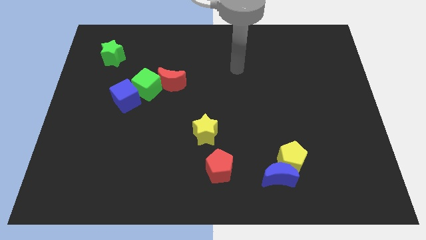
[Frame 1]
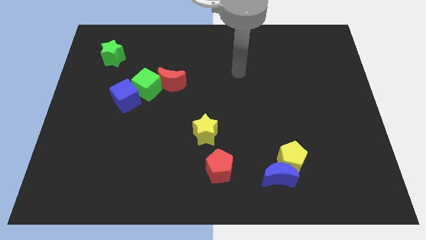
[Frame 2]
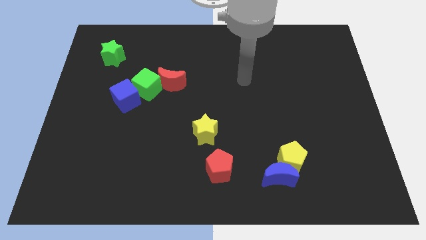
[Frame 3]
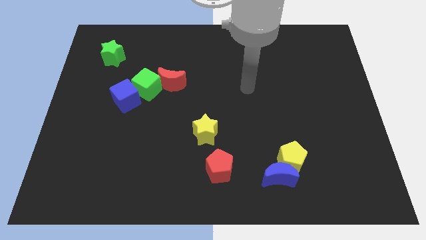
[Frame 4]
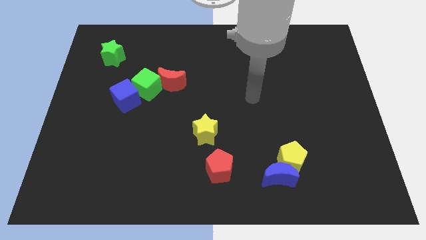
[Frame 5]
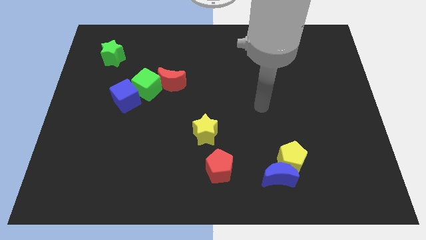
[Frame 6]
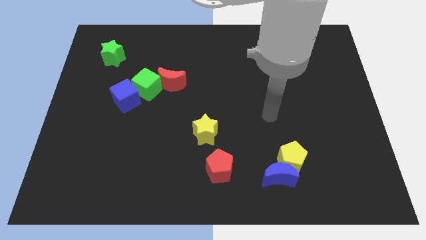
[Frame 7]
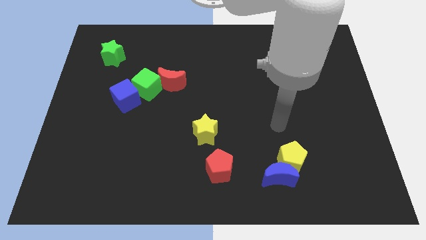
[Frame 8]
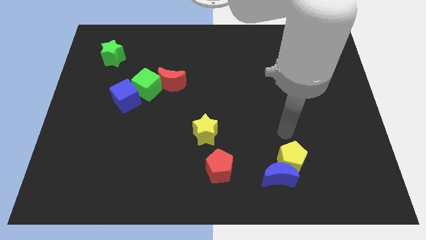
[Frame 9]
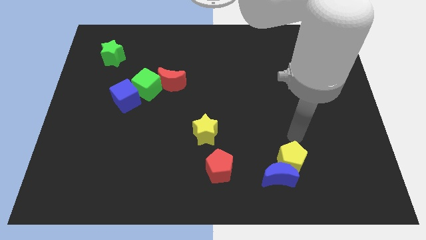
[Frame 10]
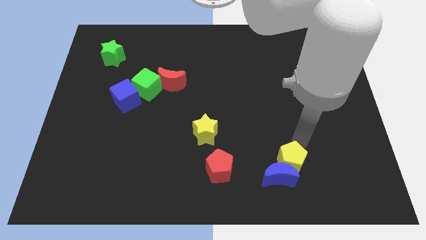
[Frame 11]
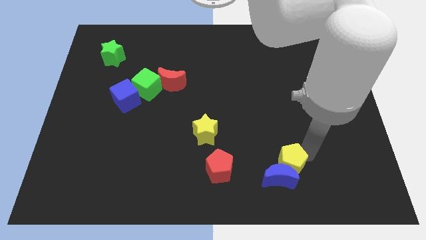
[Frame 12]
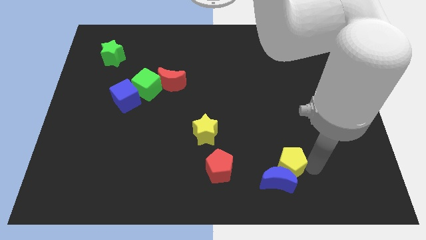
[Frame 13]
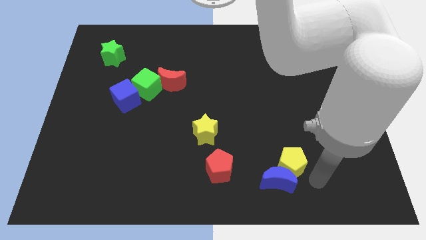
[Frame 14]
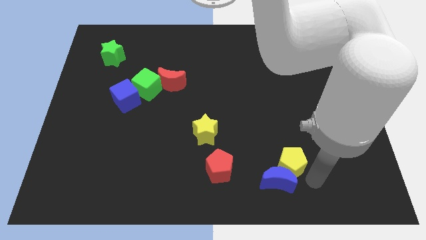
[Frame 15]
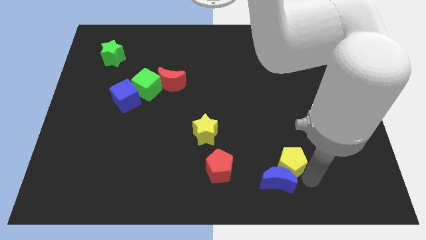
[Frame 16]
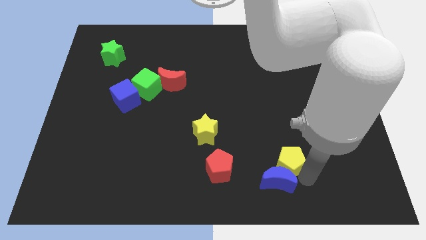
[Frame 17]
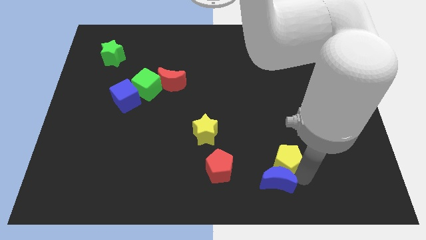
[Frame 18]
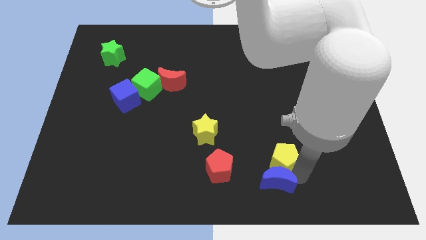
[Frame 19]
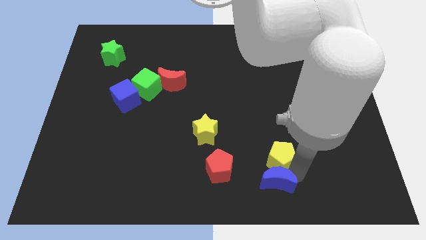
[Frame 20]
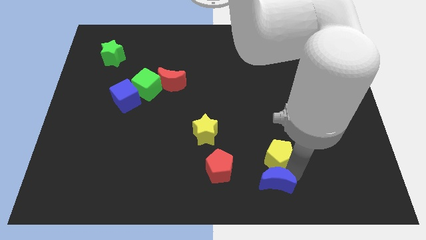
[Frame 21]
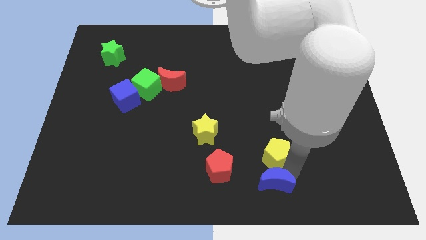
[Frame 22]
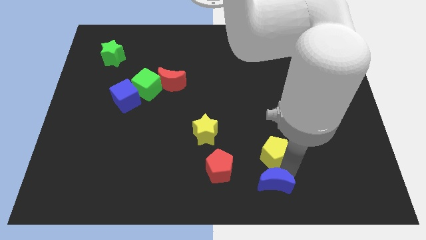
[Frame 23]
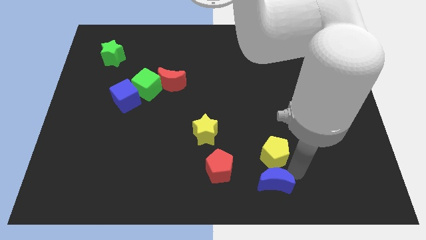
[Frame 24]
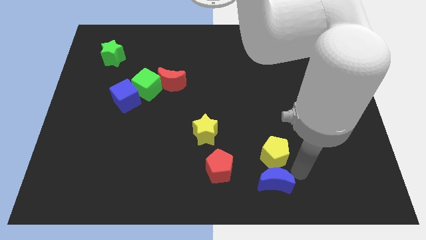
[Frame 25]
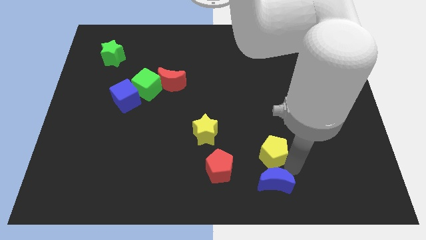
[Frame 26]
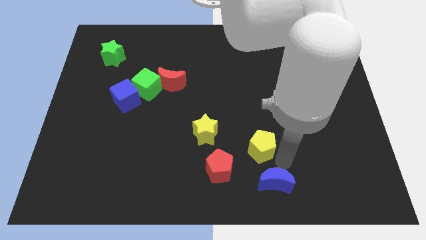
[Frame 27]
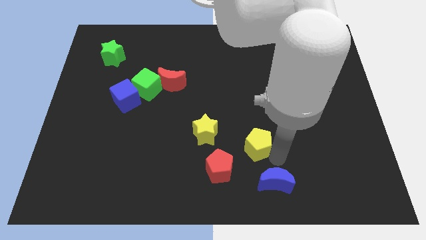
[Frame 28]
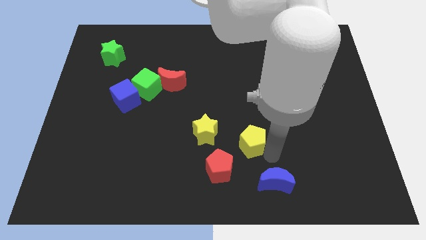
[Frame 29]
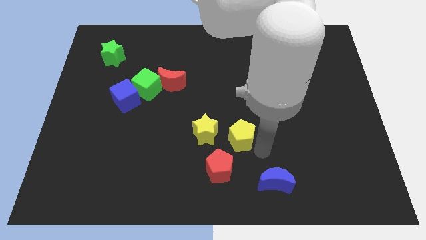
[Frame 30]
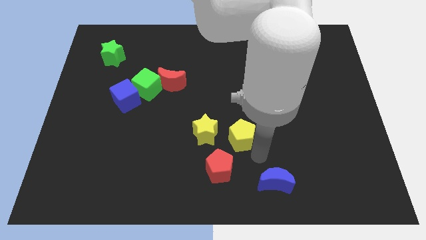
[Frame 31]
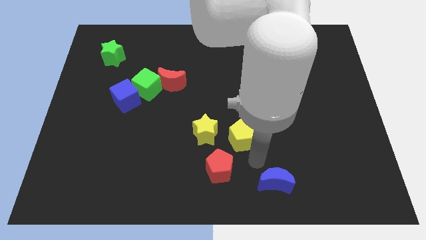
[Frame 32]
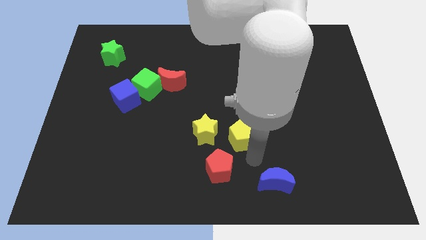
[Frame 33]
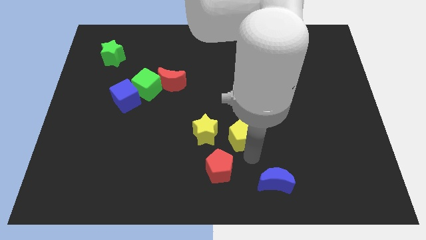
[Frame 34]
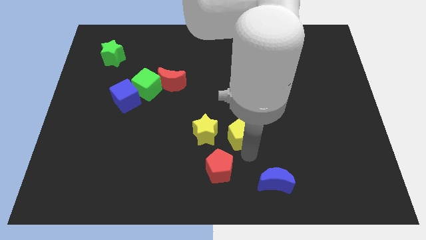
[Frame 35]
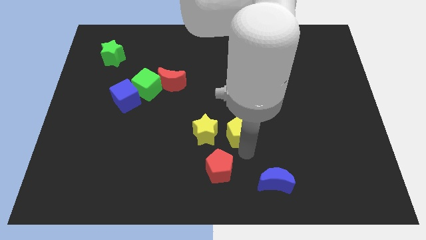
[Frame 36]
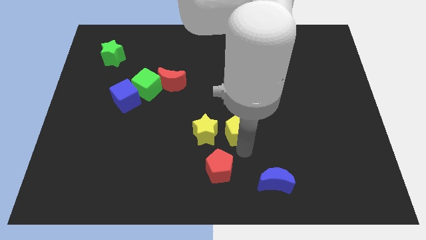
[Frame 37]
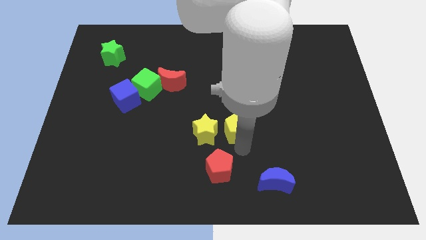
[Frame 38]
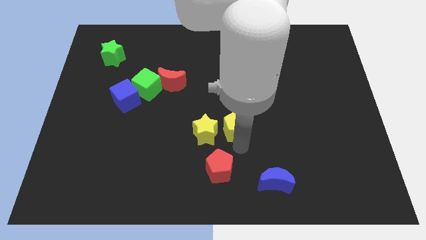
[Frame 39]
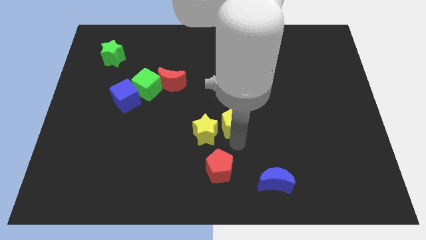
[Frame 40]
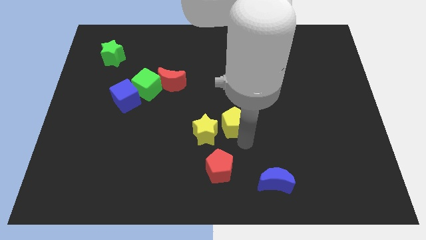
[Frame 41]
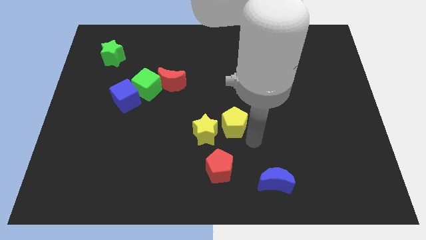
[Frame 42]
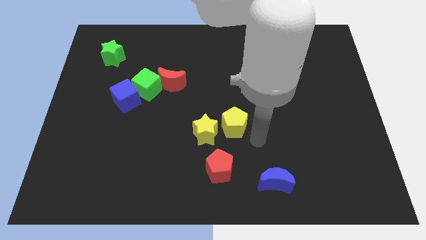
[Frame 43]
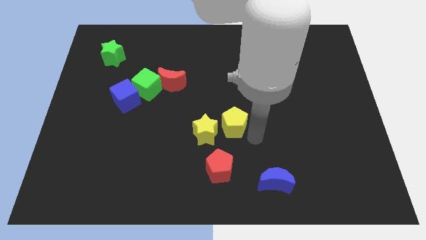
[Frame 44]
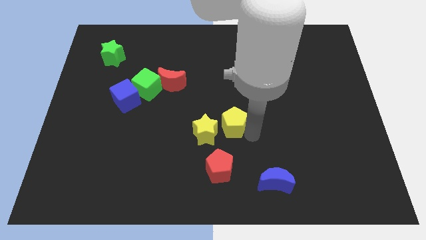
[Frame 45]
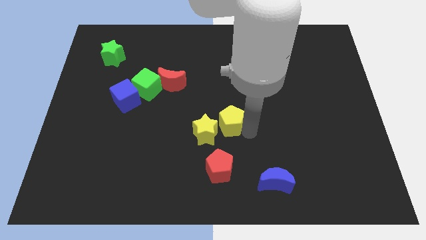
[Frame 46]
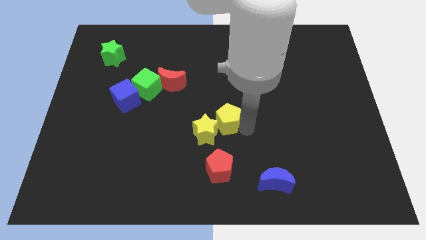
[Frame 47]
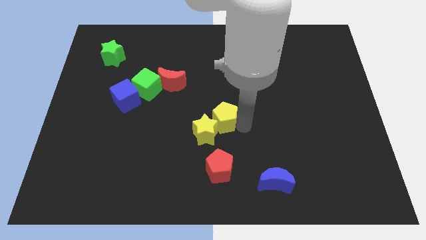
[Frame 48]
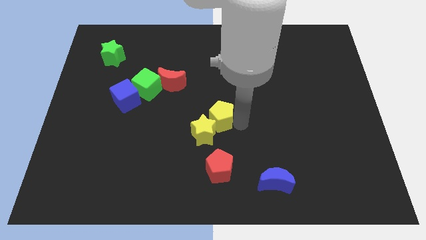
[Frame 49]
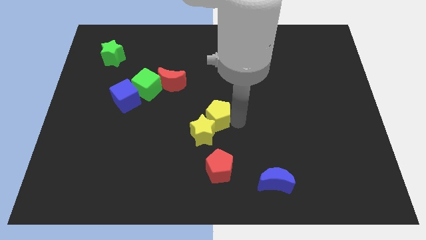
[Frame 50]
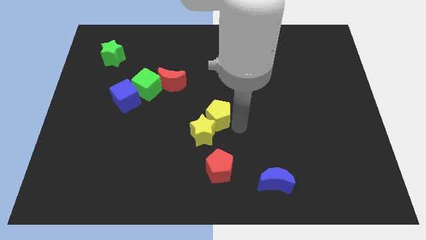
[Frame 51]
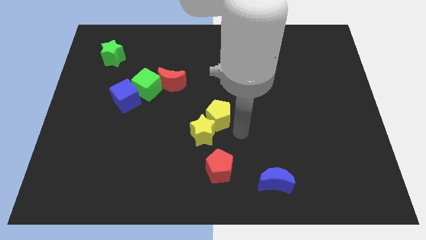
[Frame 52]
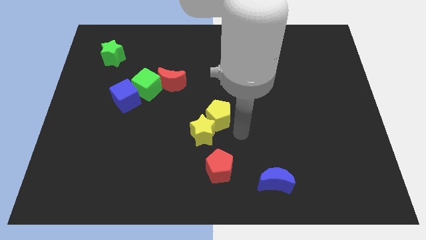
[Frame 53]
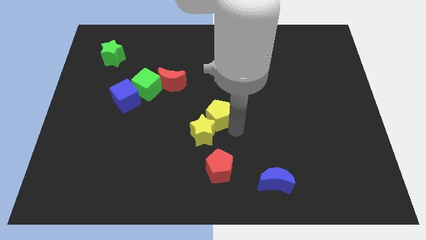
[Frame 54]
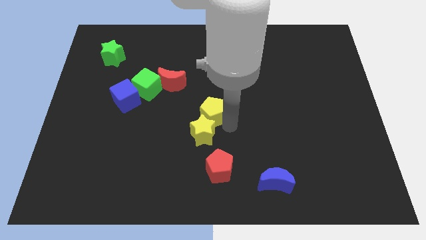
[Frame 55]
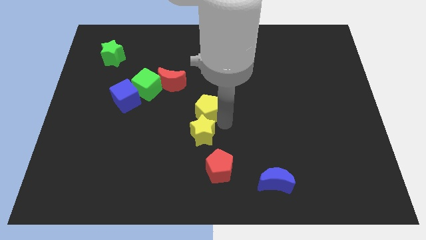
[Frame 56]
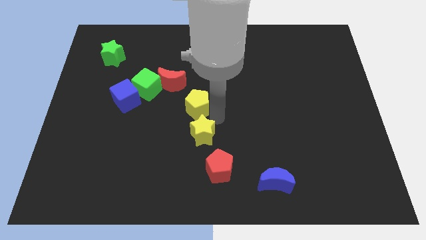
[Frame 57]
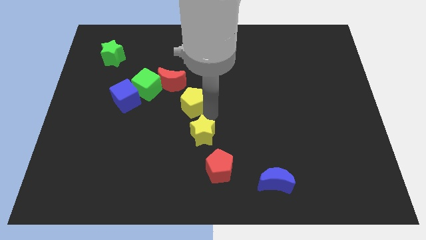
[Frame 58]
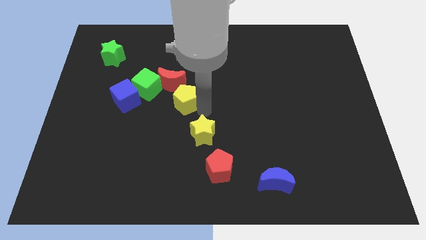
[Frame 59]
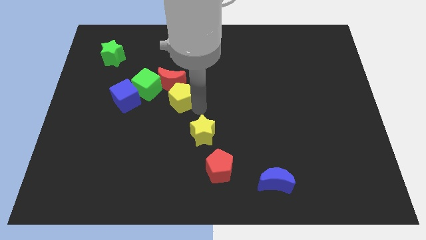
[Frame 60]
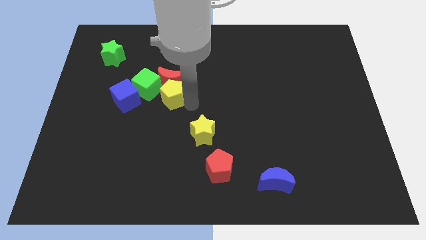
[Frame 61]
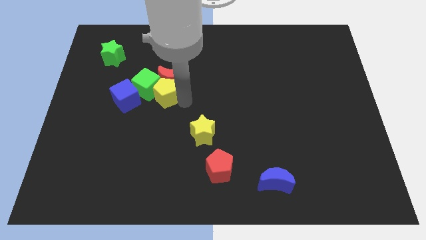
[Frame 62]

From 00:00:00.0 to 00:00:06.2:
push the yellow pentagon close to the green cube

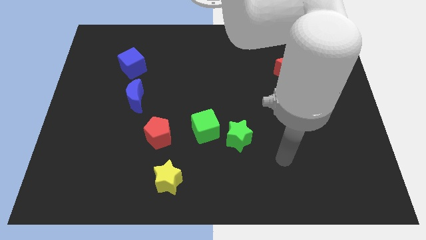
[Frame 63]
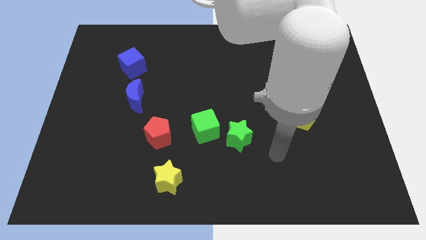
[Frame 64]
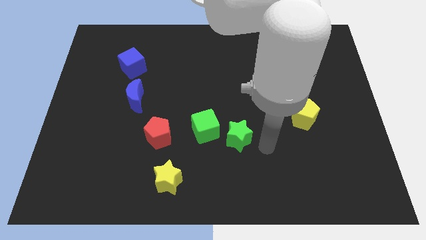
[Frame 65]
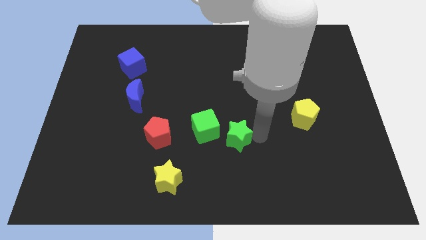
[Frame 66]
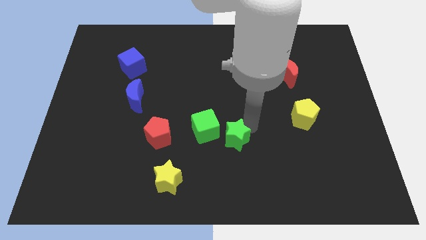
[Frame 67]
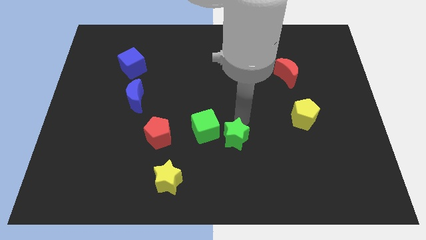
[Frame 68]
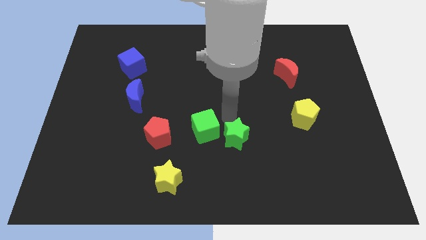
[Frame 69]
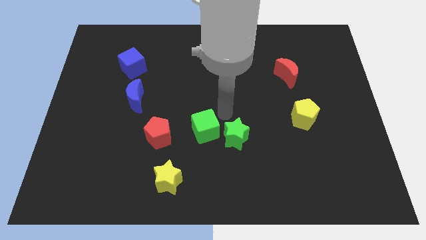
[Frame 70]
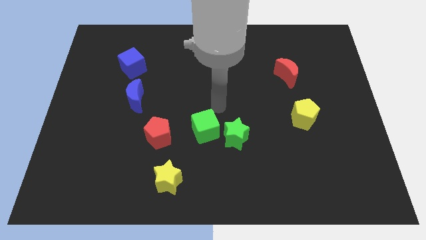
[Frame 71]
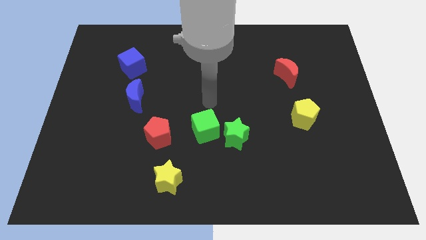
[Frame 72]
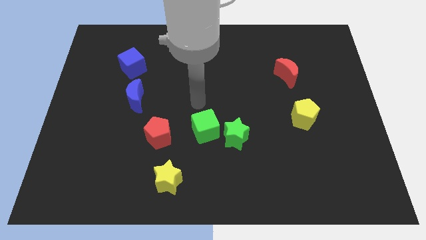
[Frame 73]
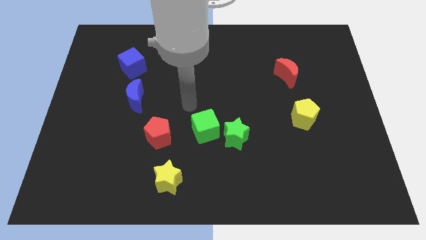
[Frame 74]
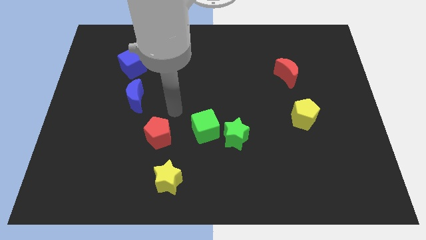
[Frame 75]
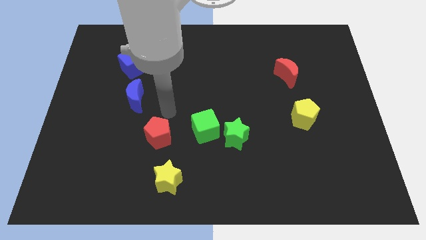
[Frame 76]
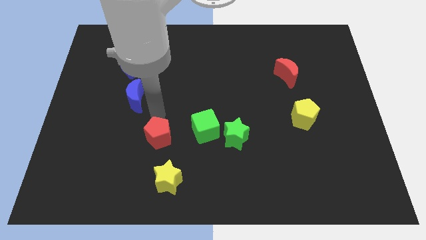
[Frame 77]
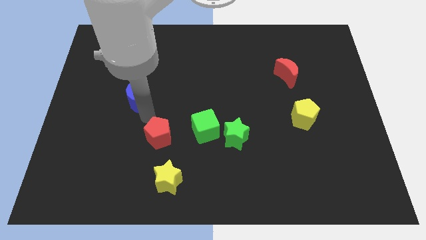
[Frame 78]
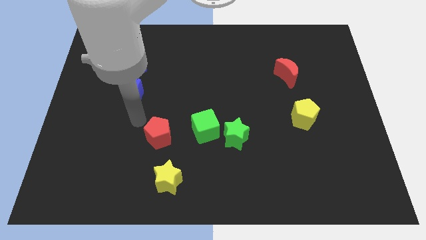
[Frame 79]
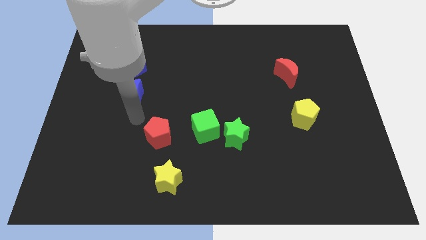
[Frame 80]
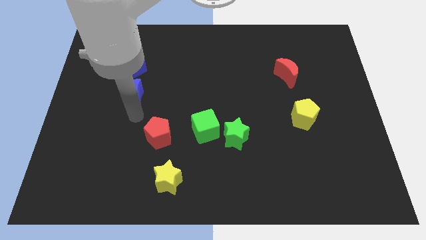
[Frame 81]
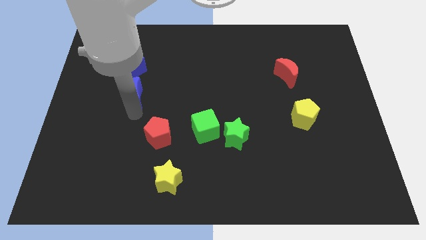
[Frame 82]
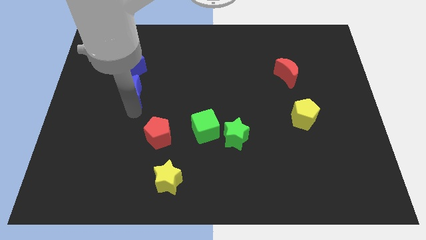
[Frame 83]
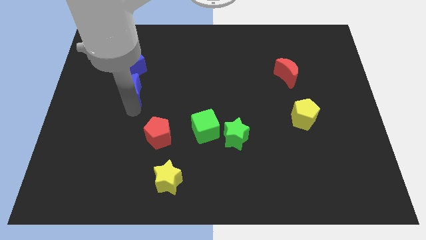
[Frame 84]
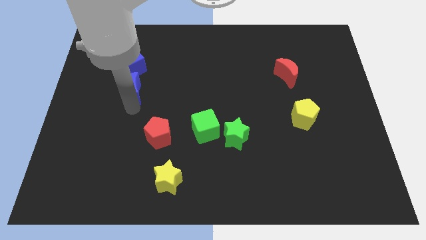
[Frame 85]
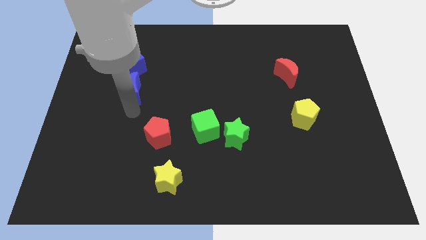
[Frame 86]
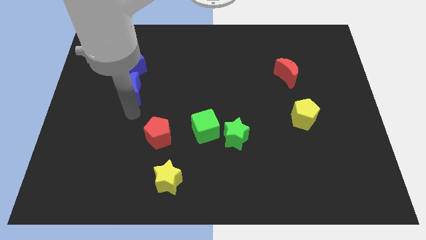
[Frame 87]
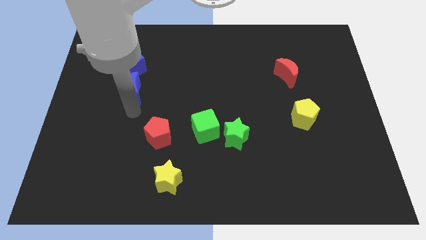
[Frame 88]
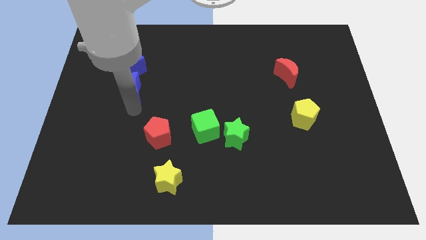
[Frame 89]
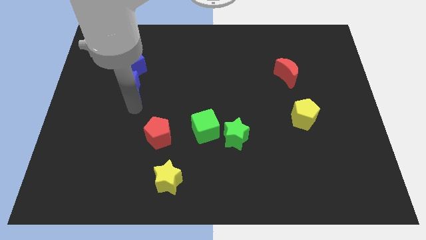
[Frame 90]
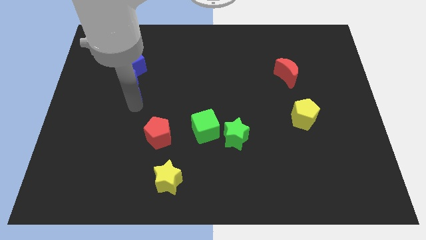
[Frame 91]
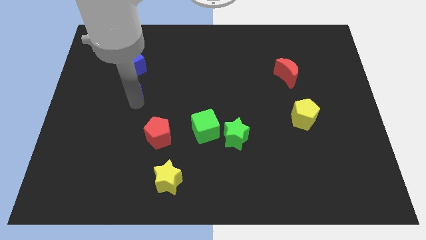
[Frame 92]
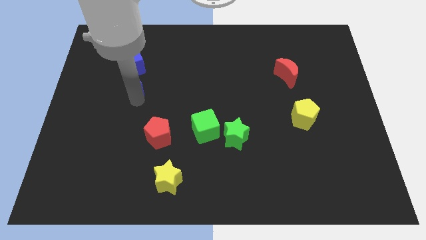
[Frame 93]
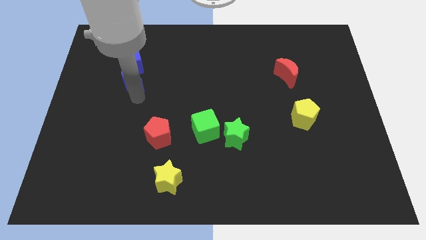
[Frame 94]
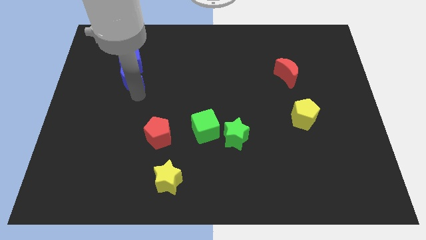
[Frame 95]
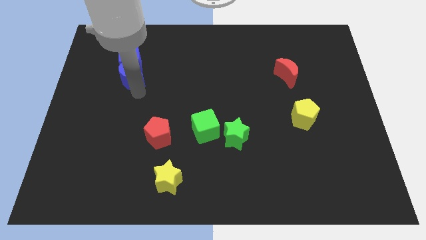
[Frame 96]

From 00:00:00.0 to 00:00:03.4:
move the blue moon close to the blue cube
